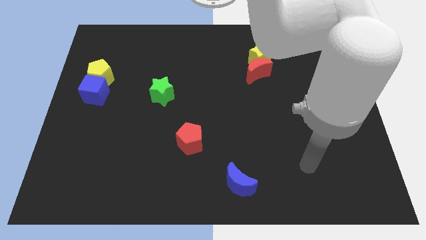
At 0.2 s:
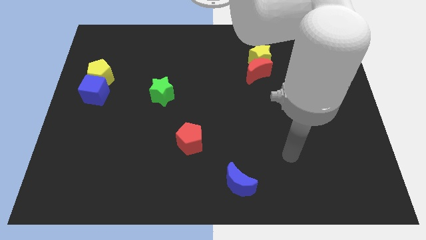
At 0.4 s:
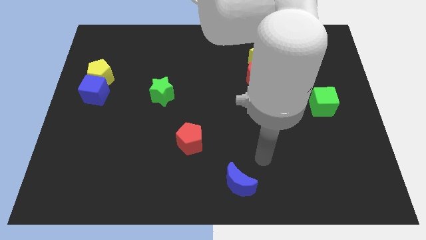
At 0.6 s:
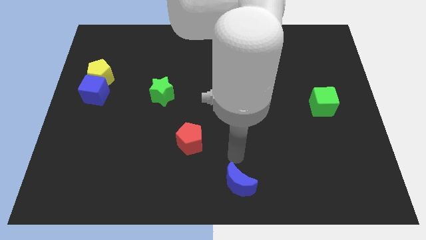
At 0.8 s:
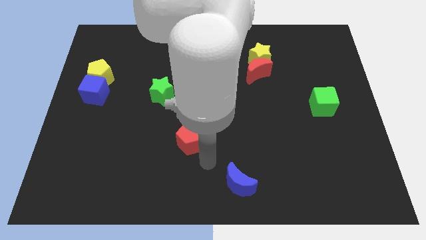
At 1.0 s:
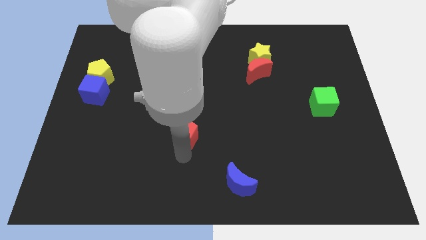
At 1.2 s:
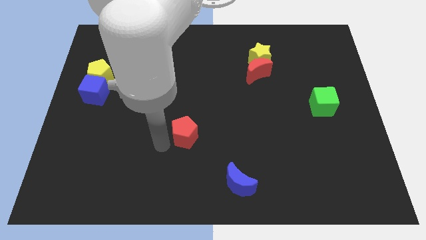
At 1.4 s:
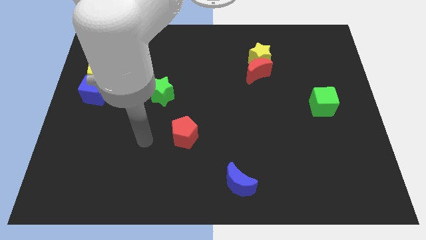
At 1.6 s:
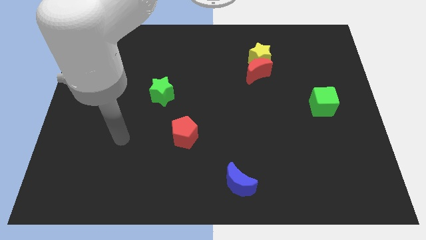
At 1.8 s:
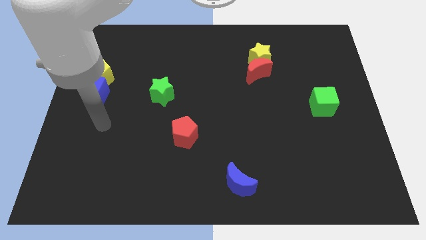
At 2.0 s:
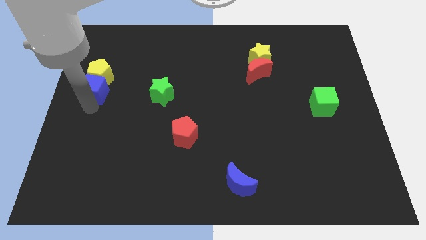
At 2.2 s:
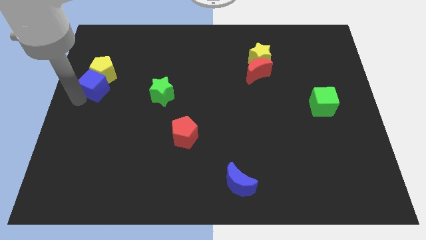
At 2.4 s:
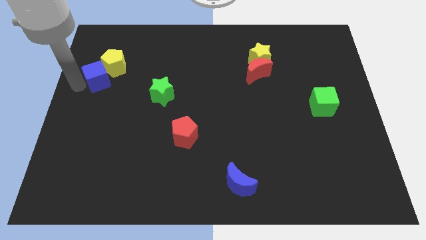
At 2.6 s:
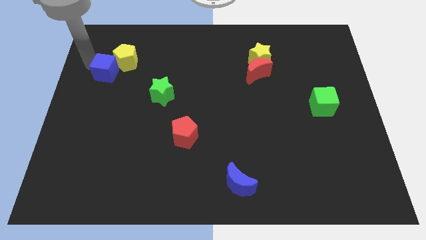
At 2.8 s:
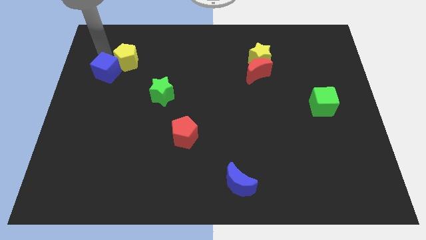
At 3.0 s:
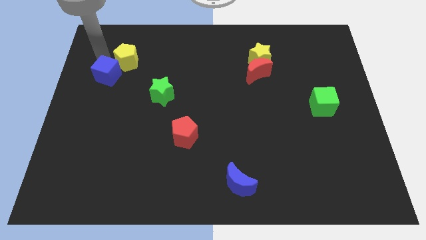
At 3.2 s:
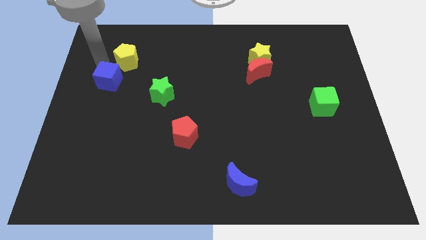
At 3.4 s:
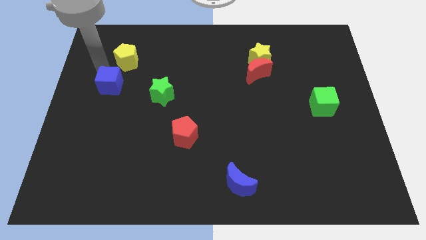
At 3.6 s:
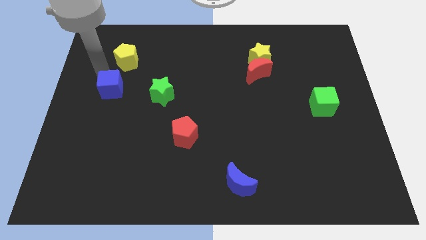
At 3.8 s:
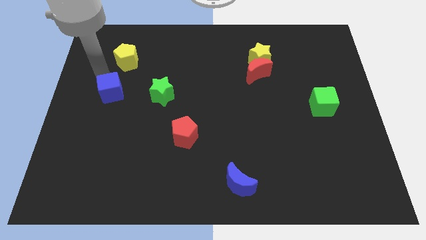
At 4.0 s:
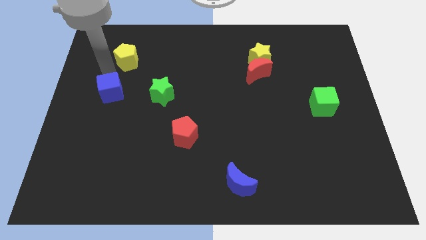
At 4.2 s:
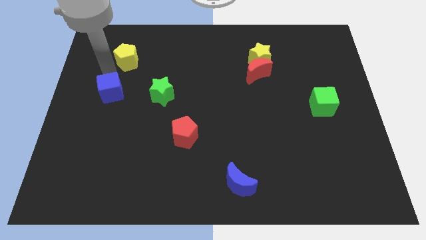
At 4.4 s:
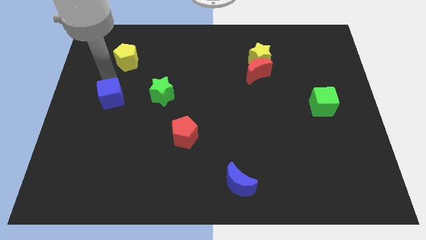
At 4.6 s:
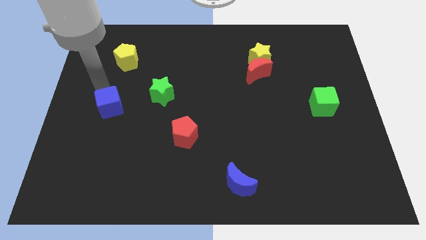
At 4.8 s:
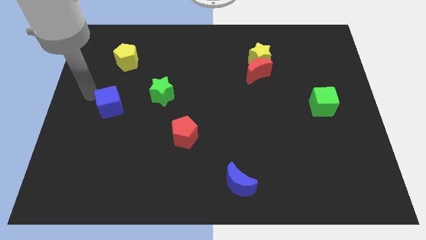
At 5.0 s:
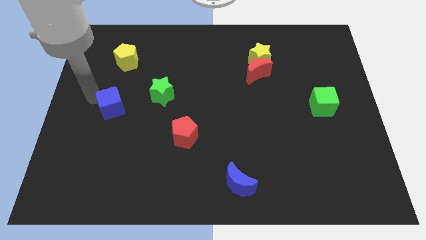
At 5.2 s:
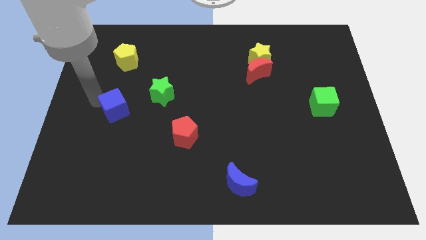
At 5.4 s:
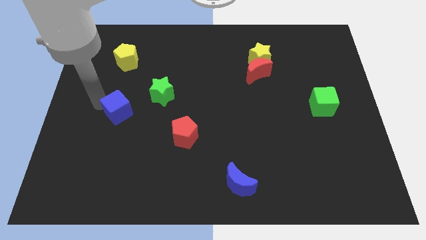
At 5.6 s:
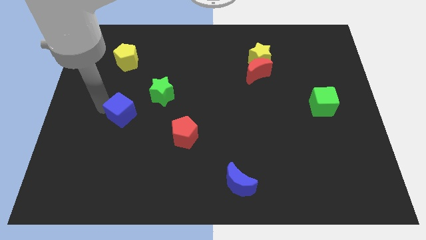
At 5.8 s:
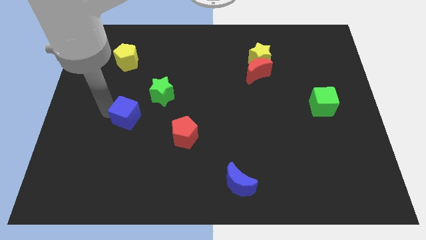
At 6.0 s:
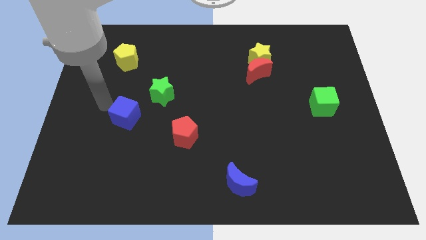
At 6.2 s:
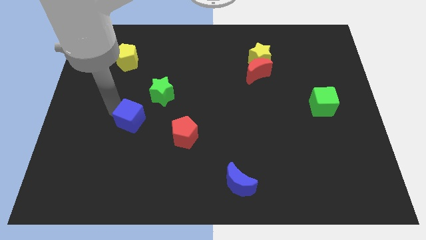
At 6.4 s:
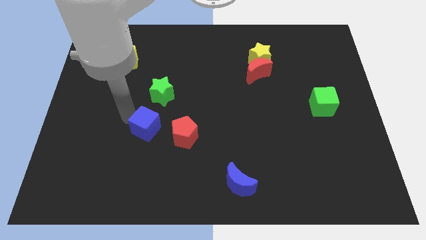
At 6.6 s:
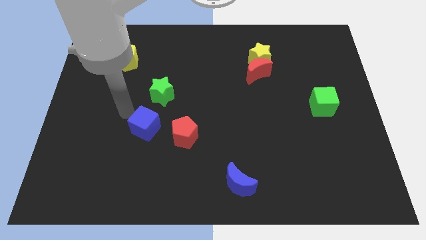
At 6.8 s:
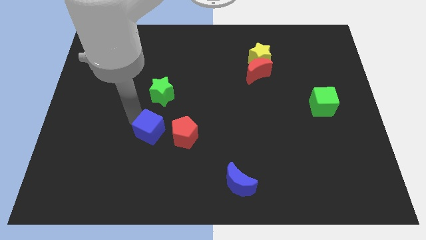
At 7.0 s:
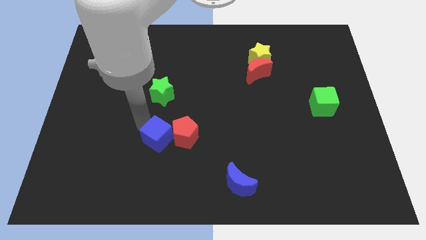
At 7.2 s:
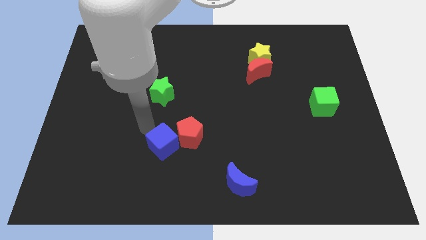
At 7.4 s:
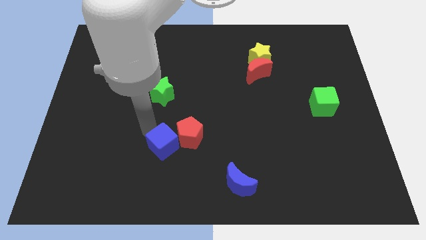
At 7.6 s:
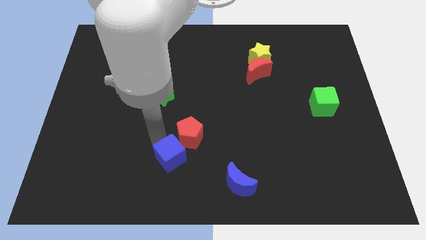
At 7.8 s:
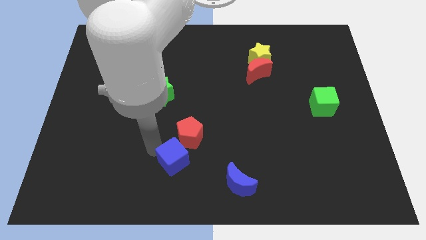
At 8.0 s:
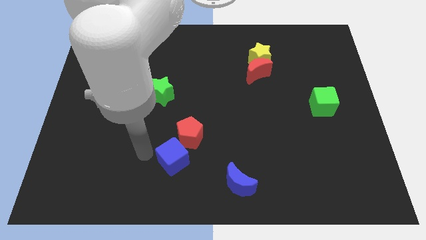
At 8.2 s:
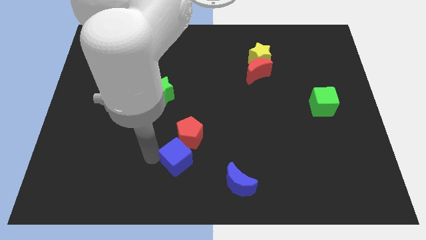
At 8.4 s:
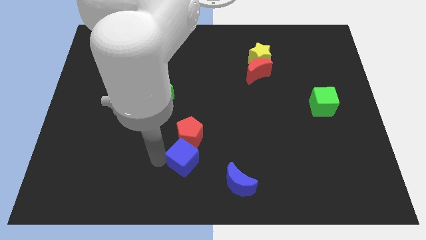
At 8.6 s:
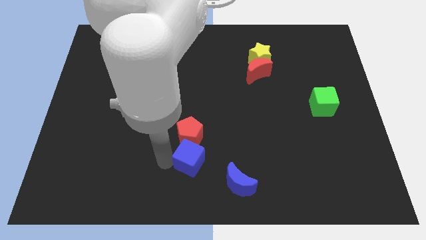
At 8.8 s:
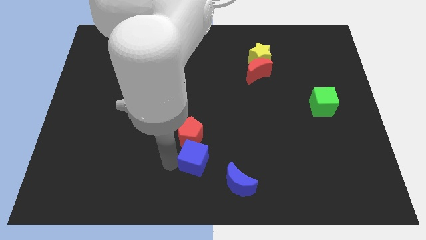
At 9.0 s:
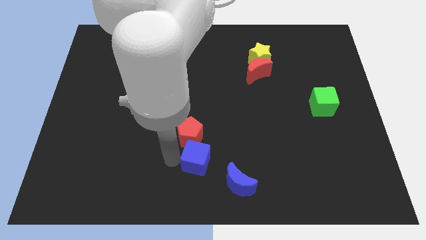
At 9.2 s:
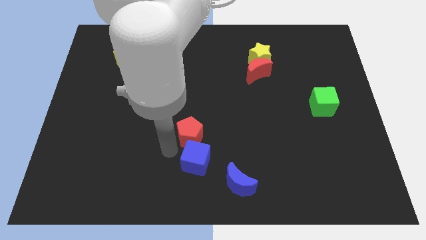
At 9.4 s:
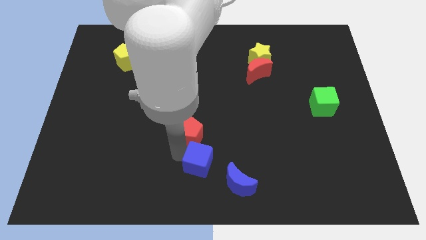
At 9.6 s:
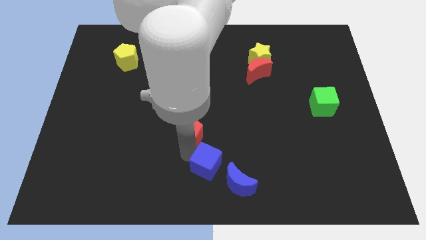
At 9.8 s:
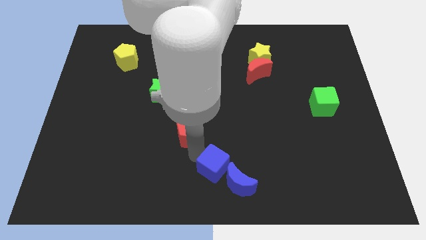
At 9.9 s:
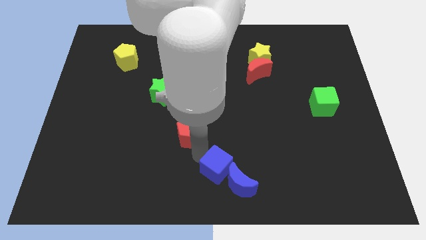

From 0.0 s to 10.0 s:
push the blue cube towards the blue moon

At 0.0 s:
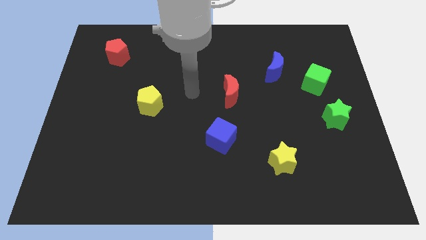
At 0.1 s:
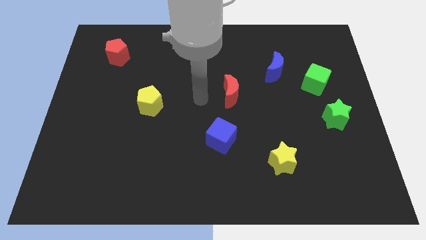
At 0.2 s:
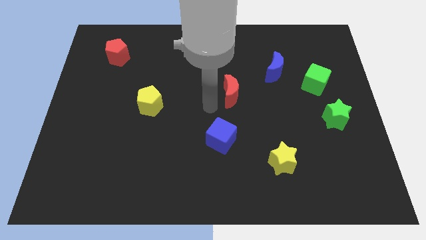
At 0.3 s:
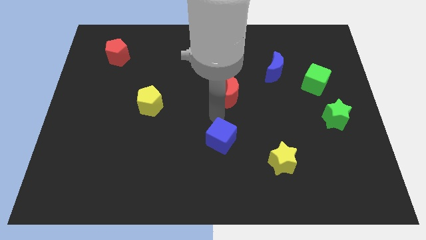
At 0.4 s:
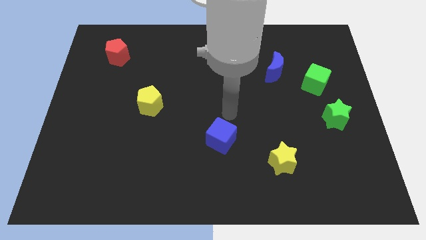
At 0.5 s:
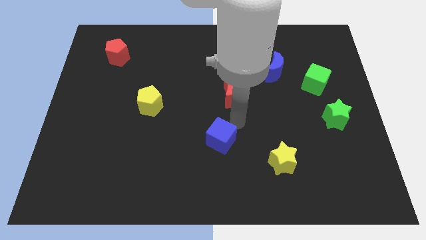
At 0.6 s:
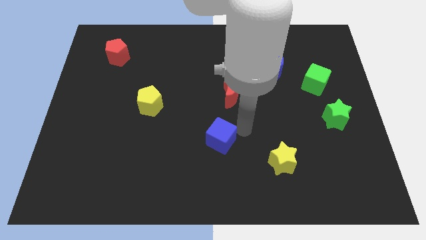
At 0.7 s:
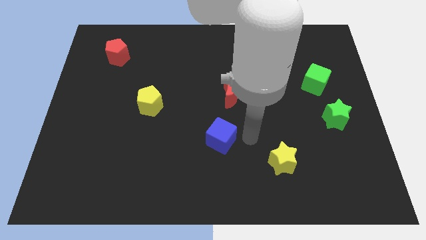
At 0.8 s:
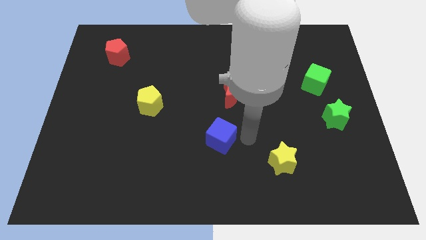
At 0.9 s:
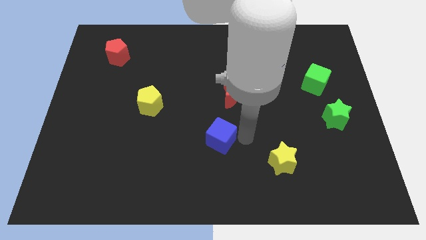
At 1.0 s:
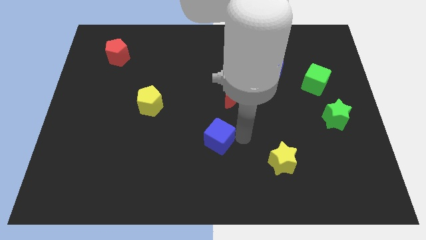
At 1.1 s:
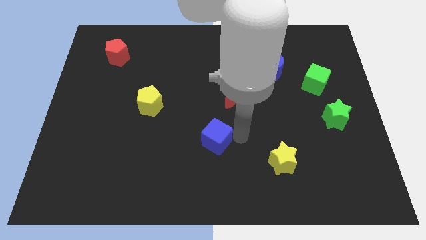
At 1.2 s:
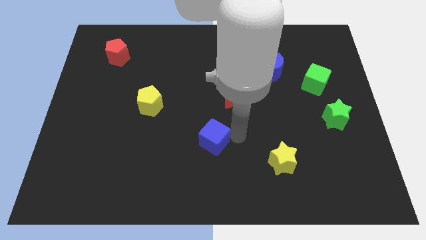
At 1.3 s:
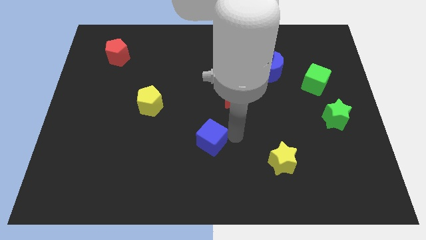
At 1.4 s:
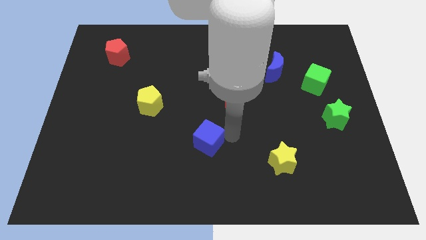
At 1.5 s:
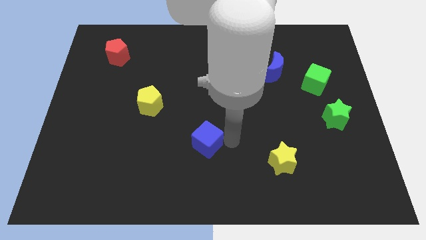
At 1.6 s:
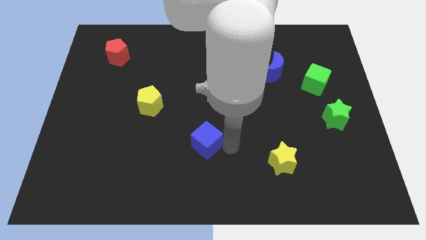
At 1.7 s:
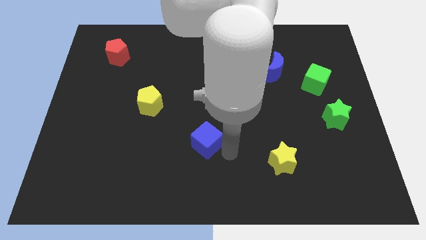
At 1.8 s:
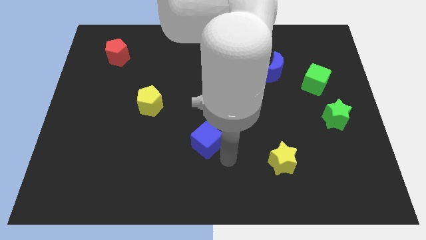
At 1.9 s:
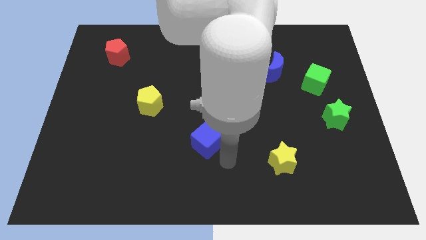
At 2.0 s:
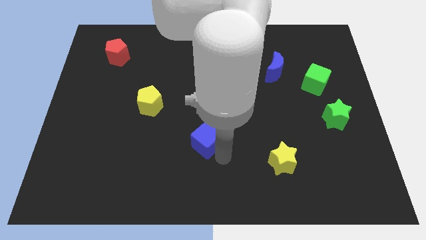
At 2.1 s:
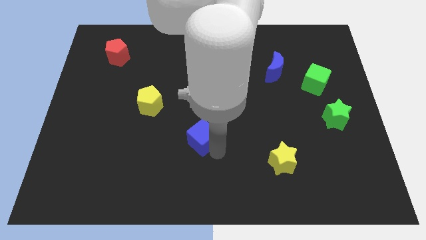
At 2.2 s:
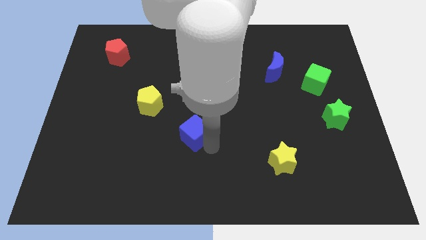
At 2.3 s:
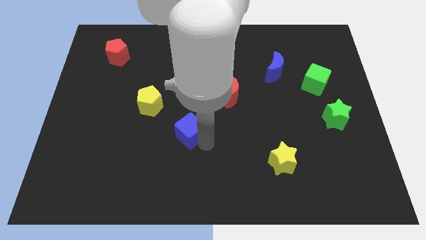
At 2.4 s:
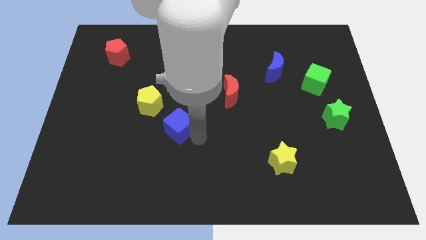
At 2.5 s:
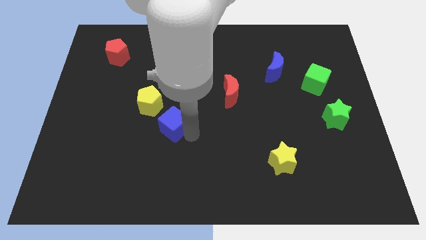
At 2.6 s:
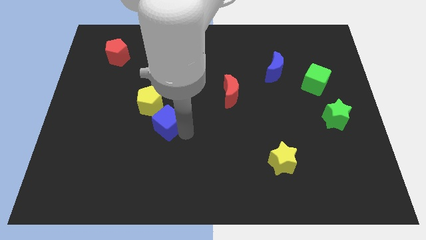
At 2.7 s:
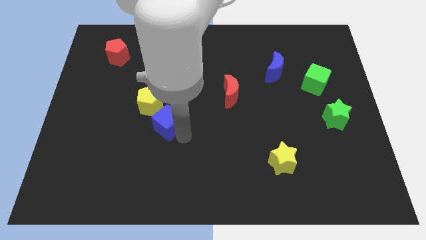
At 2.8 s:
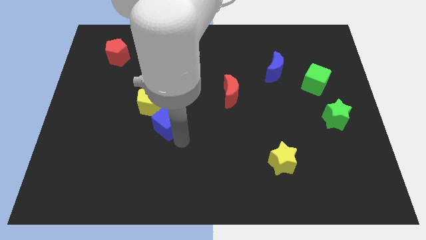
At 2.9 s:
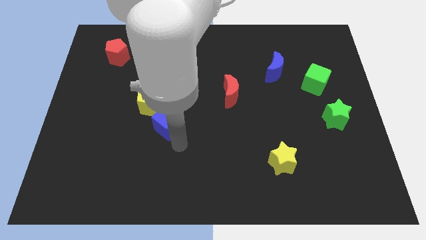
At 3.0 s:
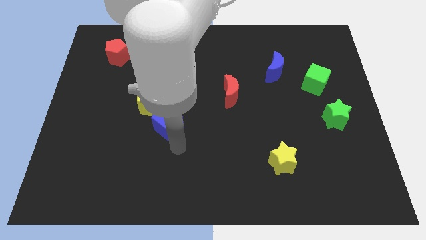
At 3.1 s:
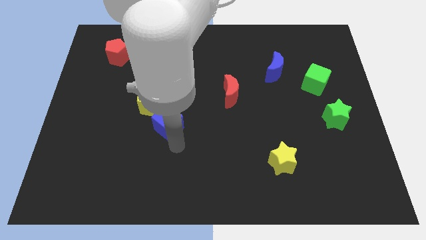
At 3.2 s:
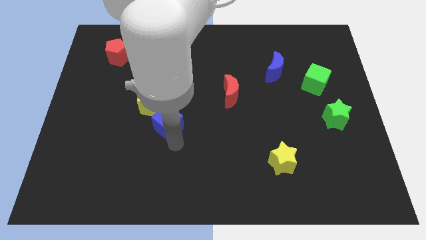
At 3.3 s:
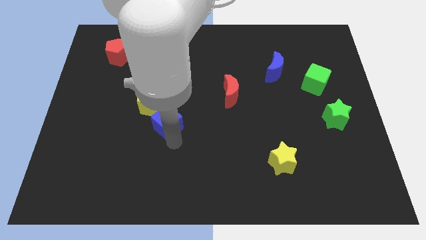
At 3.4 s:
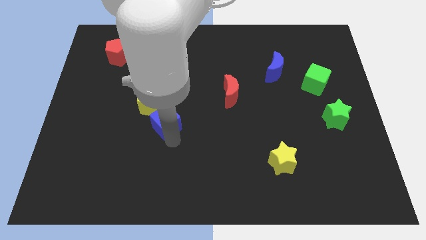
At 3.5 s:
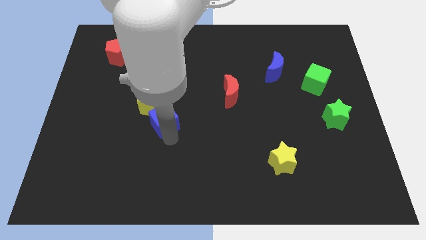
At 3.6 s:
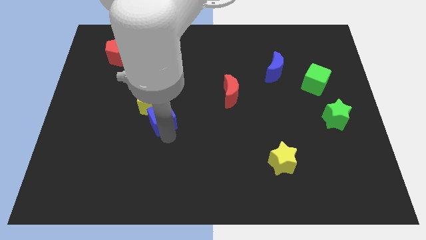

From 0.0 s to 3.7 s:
move the blue cube to the yellow pentagon
